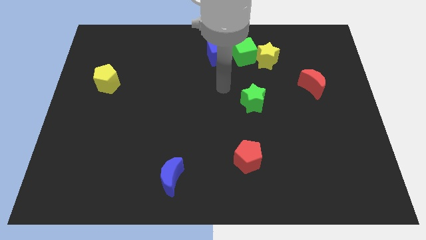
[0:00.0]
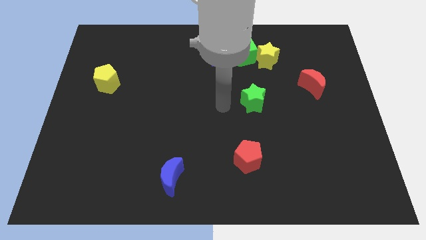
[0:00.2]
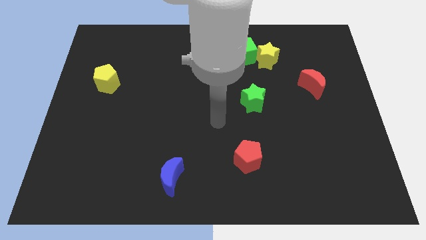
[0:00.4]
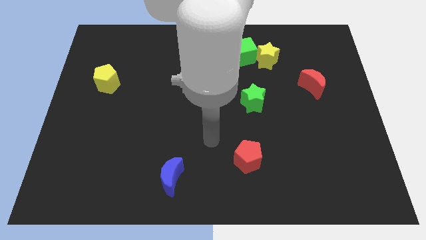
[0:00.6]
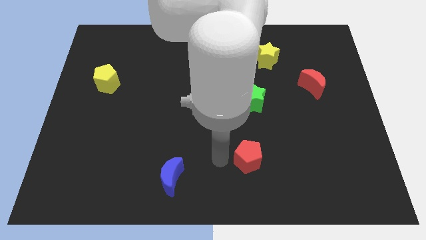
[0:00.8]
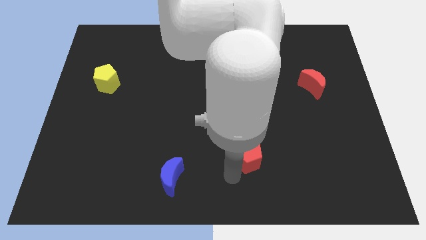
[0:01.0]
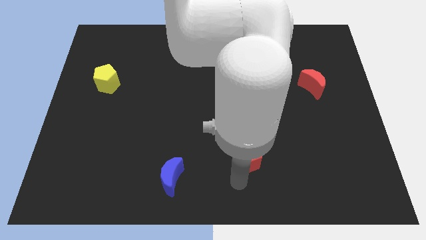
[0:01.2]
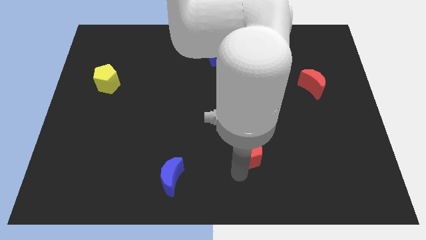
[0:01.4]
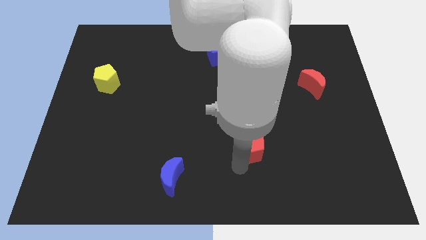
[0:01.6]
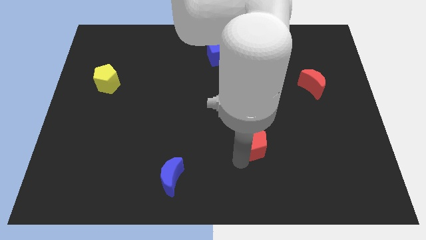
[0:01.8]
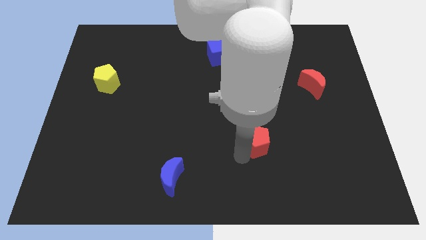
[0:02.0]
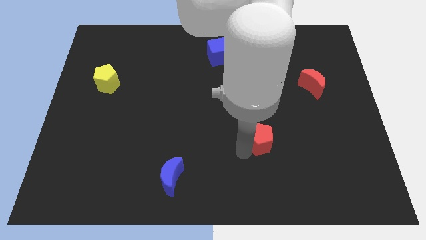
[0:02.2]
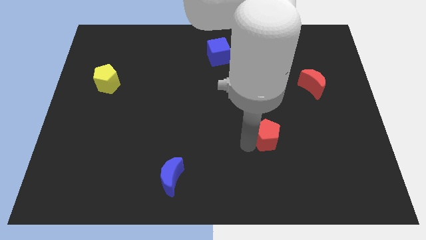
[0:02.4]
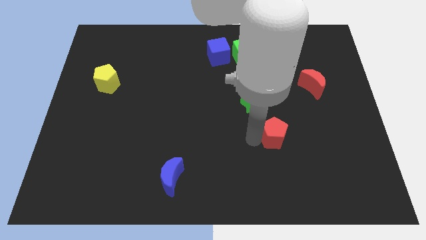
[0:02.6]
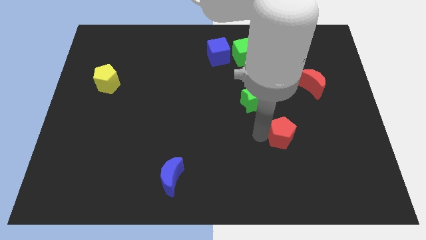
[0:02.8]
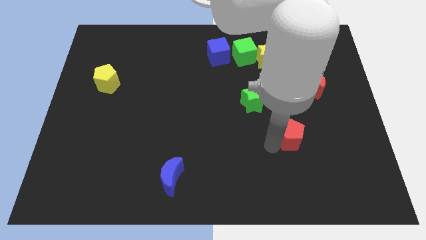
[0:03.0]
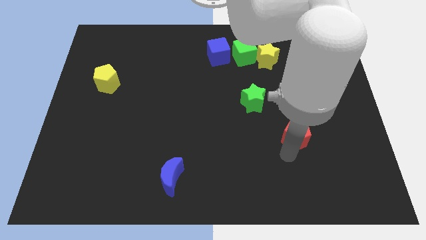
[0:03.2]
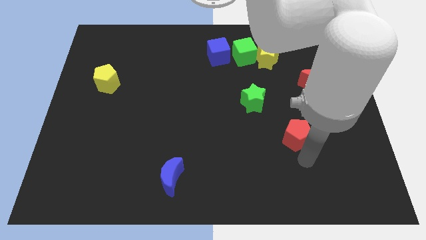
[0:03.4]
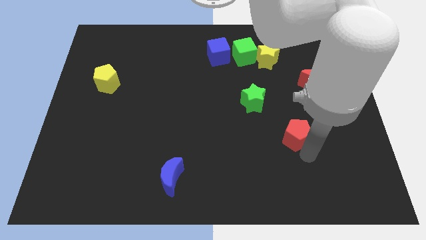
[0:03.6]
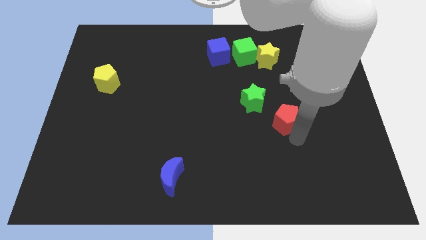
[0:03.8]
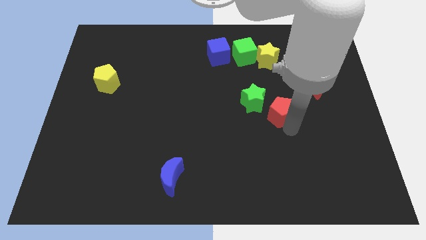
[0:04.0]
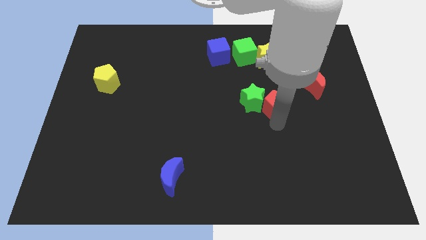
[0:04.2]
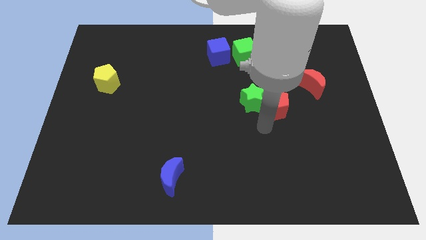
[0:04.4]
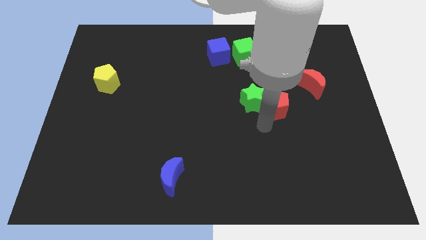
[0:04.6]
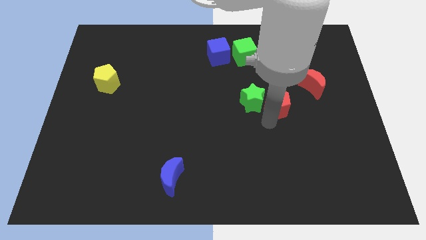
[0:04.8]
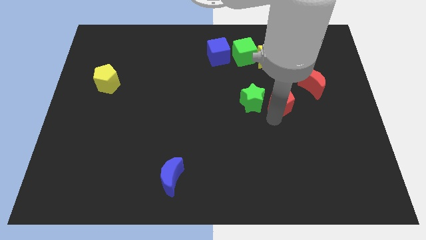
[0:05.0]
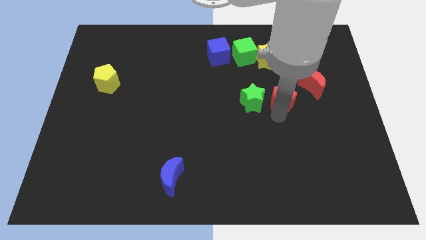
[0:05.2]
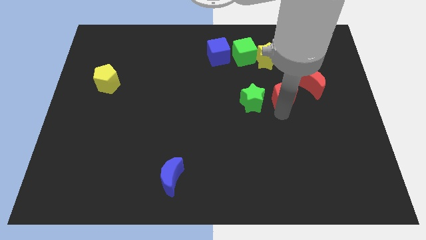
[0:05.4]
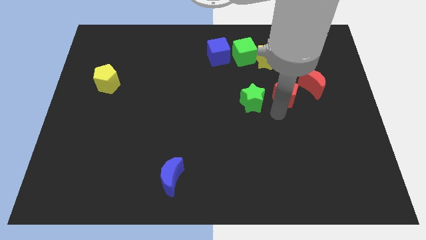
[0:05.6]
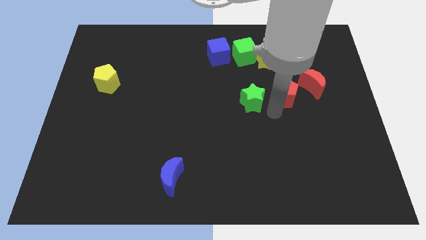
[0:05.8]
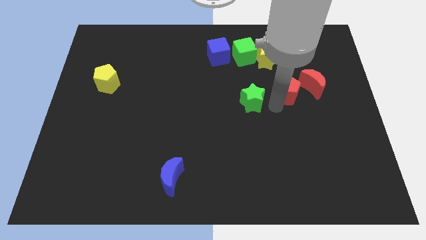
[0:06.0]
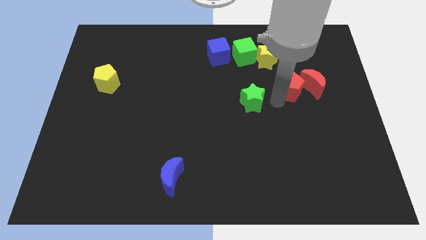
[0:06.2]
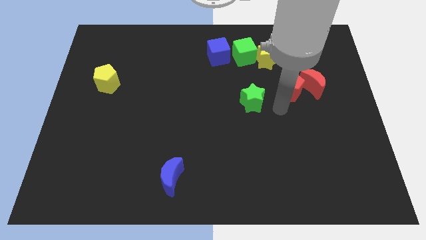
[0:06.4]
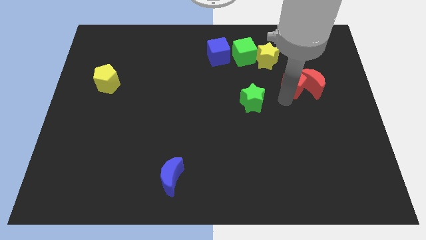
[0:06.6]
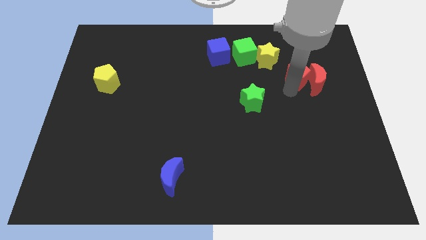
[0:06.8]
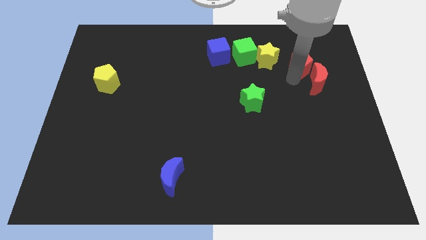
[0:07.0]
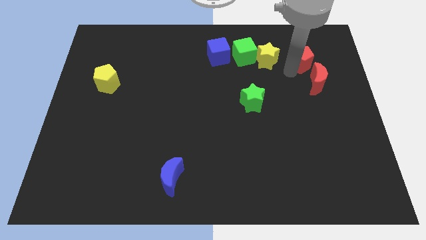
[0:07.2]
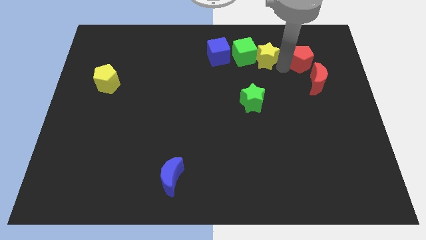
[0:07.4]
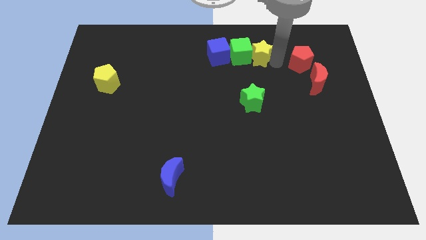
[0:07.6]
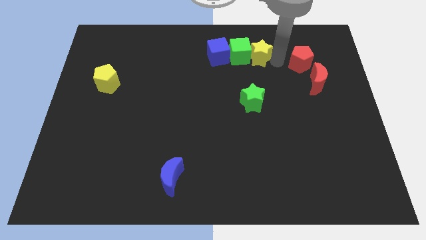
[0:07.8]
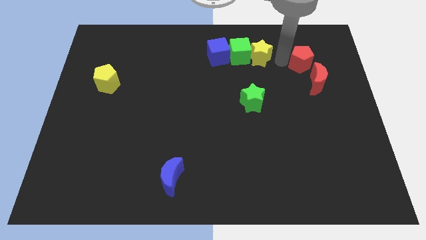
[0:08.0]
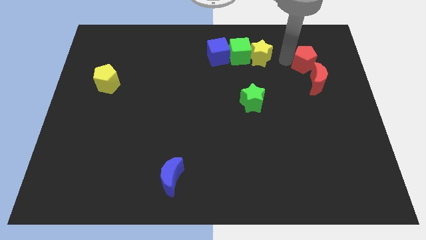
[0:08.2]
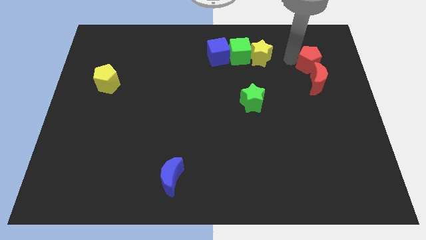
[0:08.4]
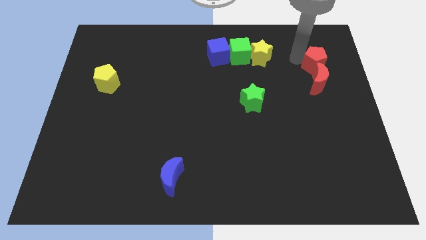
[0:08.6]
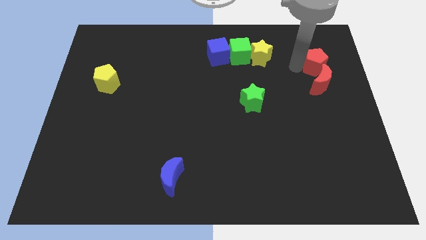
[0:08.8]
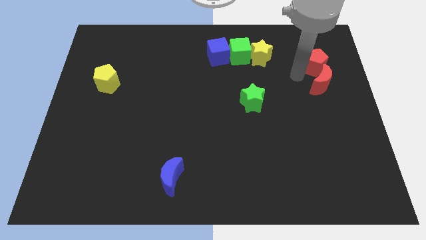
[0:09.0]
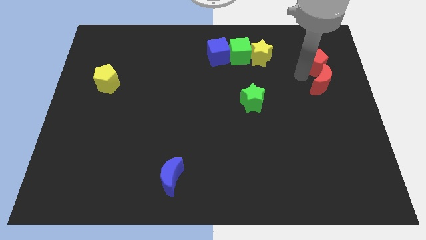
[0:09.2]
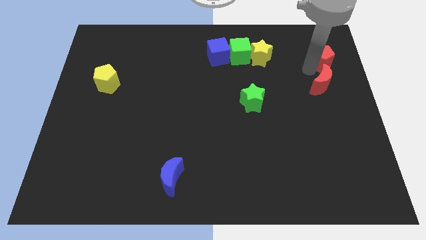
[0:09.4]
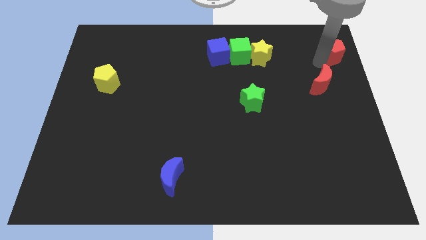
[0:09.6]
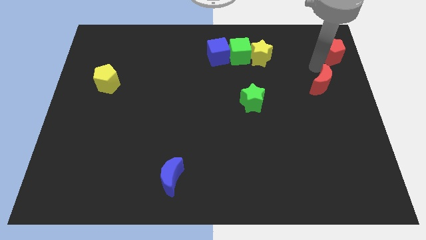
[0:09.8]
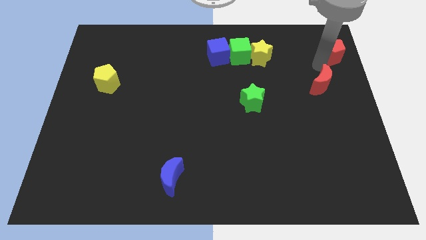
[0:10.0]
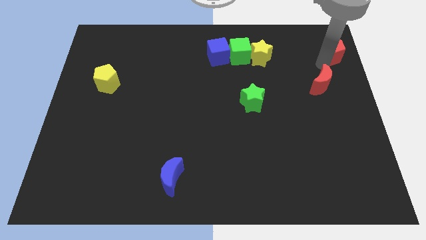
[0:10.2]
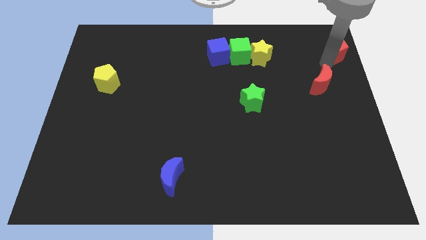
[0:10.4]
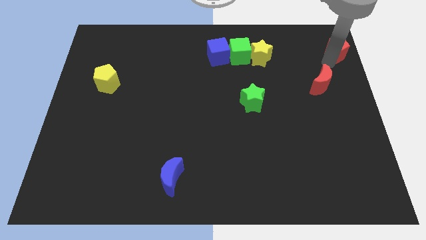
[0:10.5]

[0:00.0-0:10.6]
put the red pentagon to the top right corner

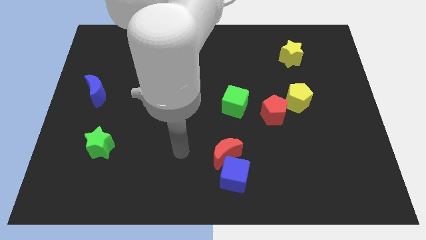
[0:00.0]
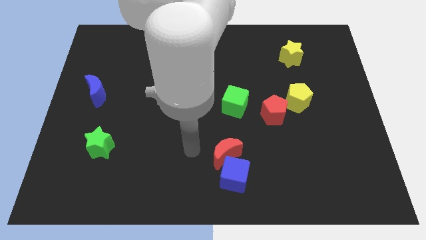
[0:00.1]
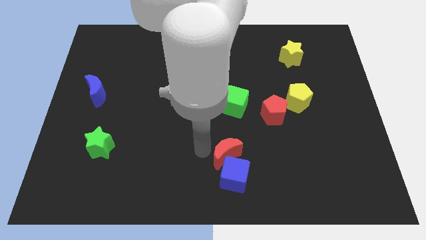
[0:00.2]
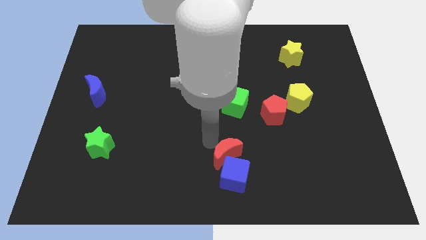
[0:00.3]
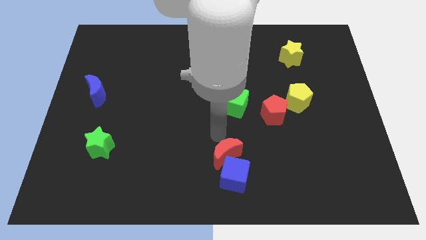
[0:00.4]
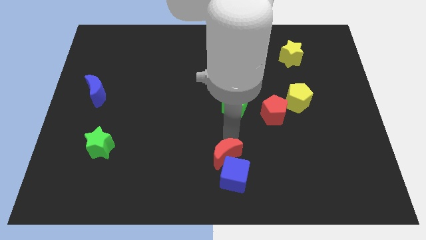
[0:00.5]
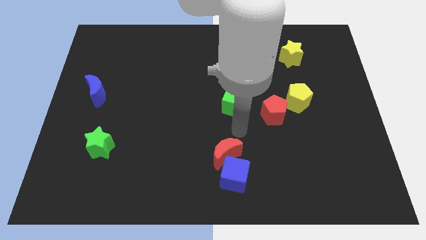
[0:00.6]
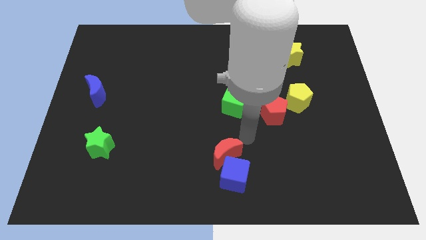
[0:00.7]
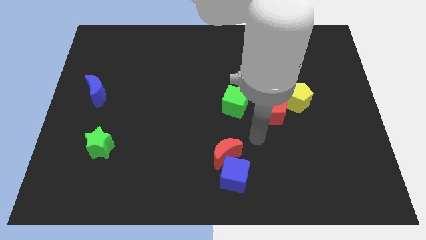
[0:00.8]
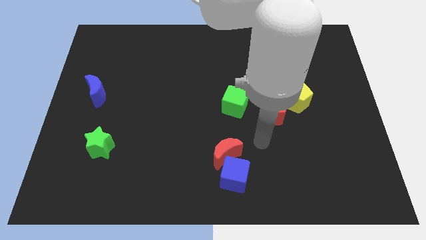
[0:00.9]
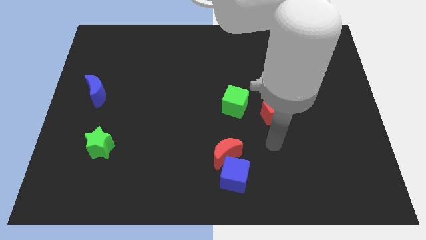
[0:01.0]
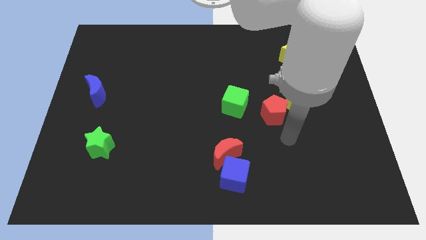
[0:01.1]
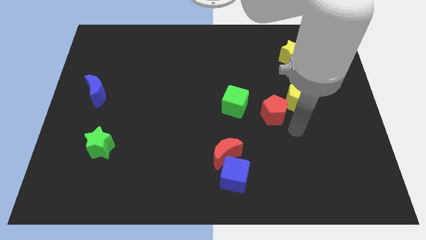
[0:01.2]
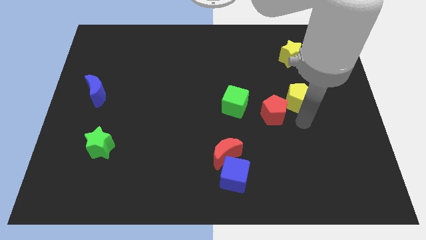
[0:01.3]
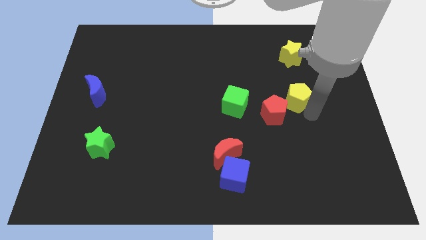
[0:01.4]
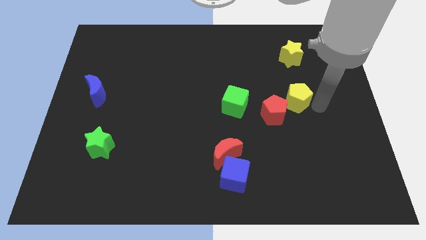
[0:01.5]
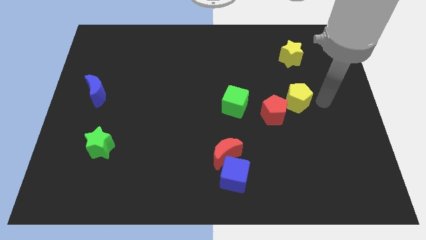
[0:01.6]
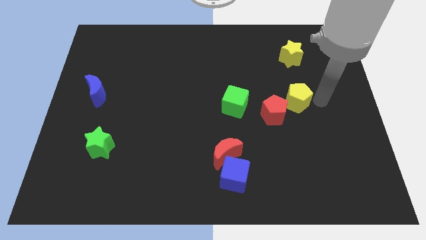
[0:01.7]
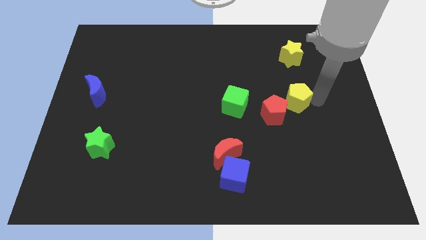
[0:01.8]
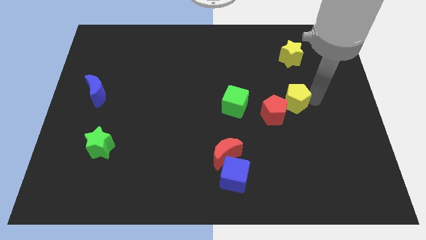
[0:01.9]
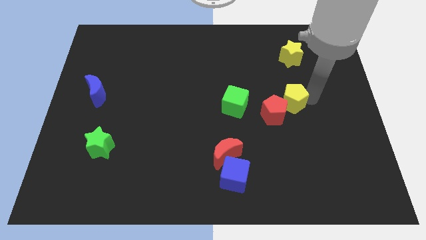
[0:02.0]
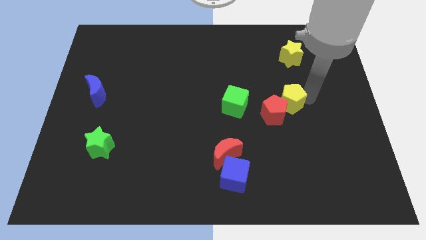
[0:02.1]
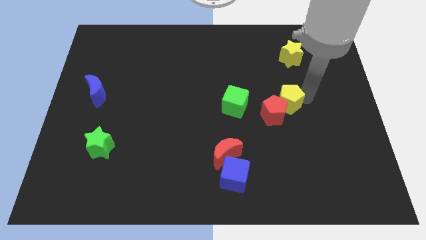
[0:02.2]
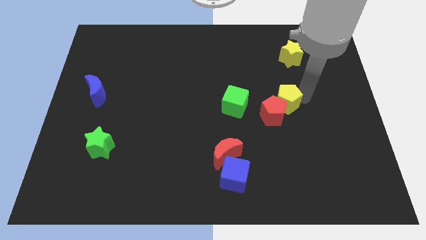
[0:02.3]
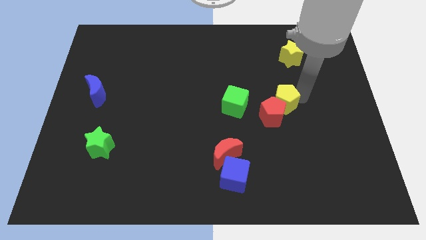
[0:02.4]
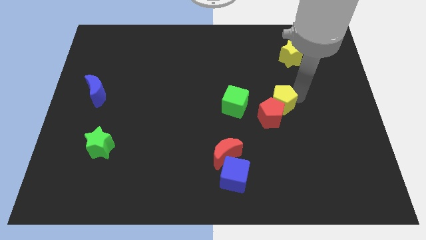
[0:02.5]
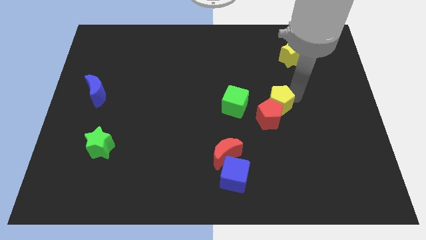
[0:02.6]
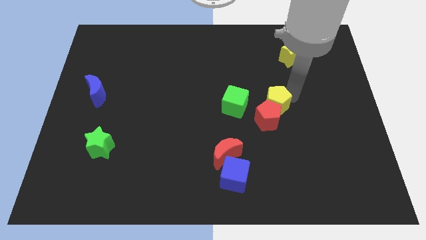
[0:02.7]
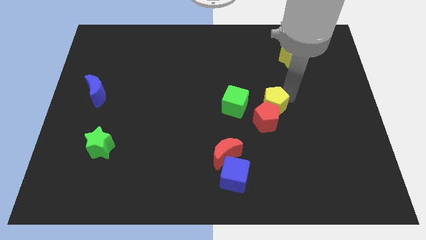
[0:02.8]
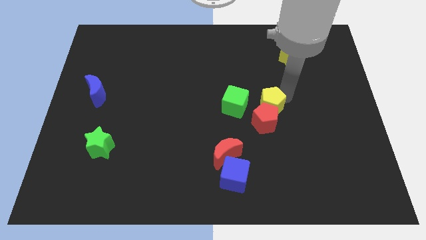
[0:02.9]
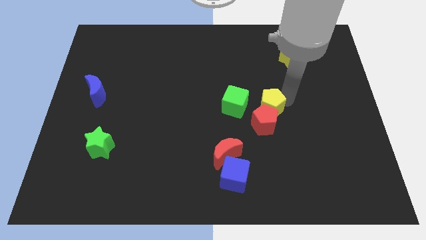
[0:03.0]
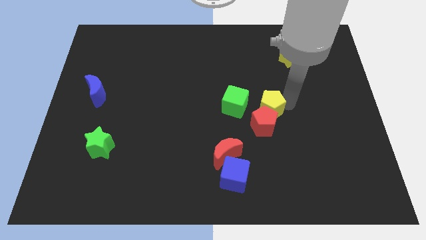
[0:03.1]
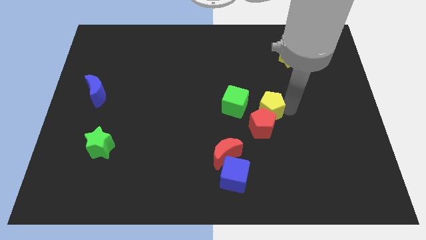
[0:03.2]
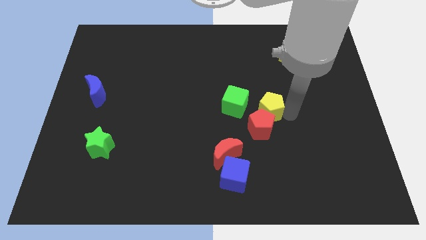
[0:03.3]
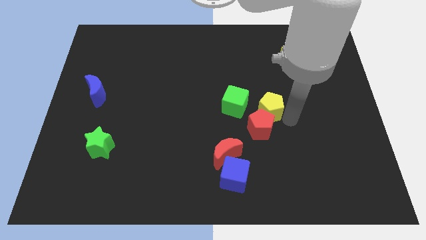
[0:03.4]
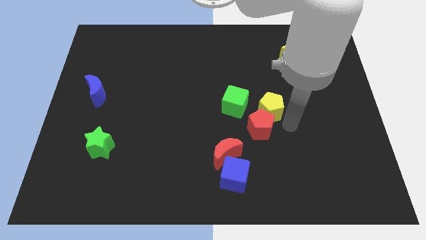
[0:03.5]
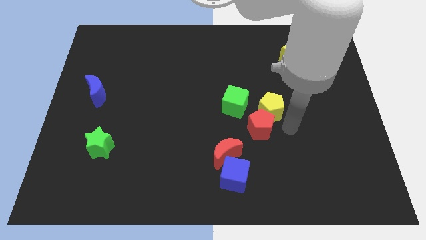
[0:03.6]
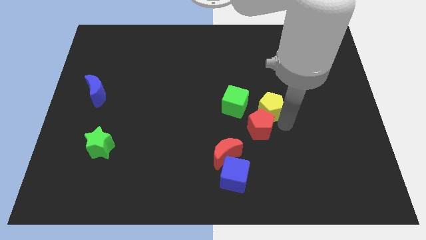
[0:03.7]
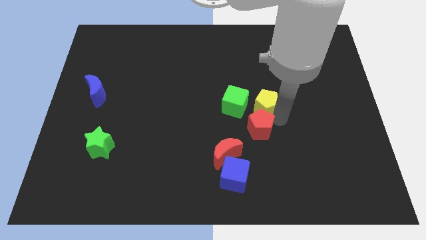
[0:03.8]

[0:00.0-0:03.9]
put the yellow pentagon to the center of the board
